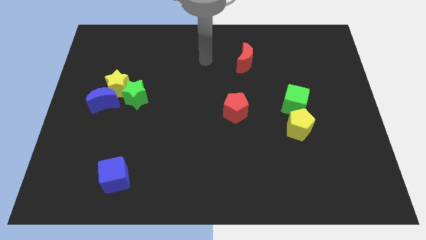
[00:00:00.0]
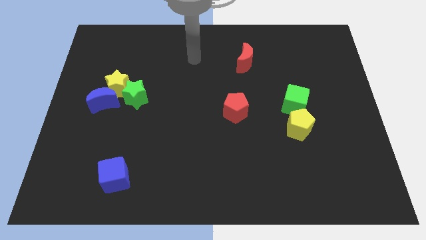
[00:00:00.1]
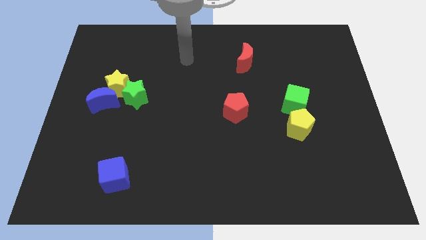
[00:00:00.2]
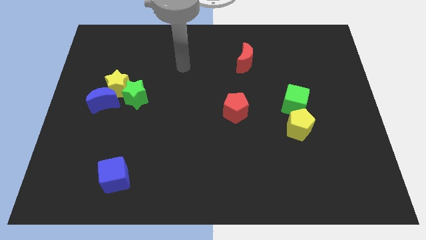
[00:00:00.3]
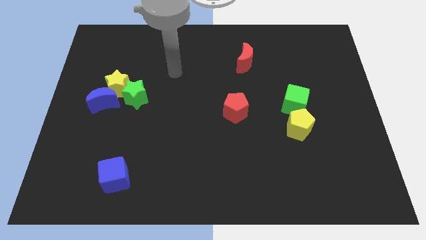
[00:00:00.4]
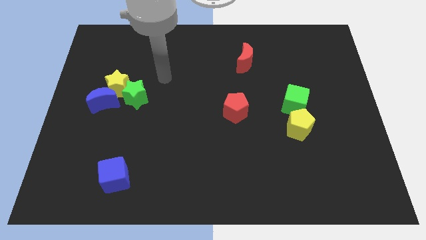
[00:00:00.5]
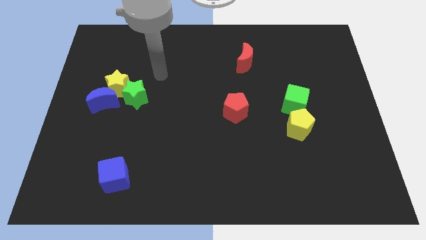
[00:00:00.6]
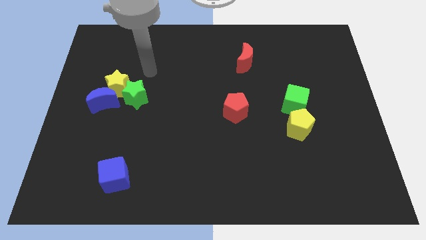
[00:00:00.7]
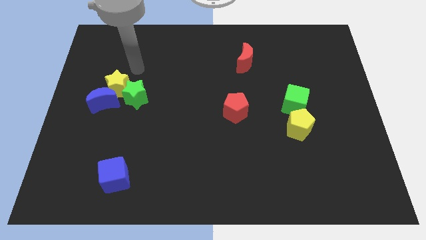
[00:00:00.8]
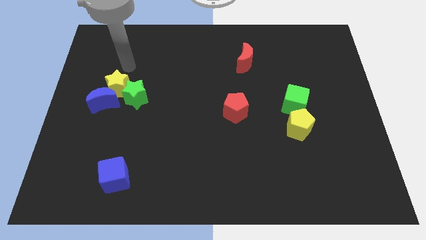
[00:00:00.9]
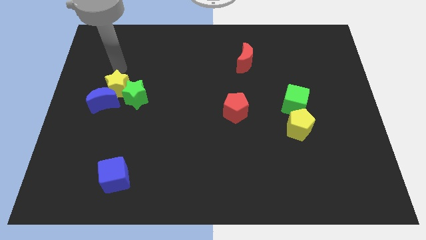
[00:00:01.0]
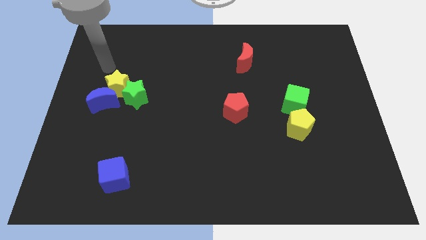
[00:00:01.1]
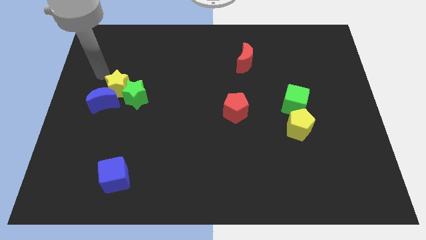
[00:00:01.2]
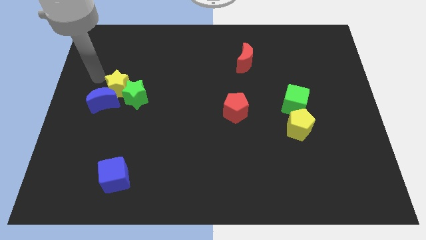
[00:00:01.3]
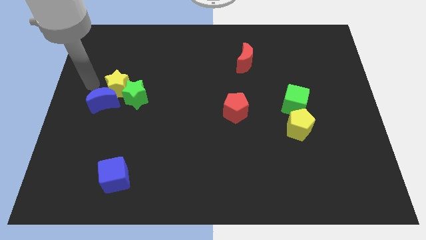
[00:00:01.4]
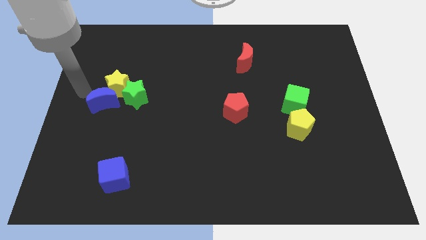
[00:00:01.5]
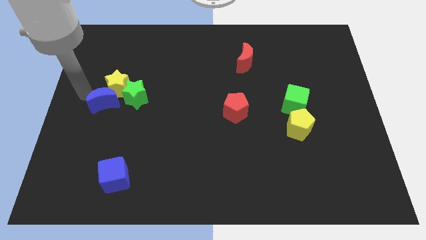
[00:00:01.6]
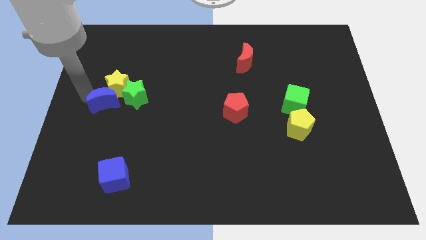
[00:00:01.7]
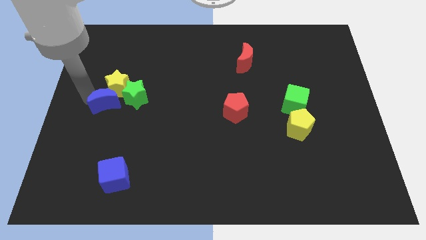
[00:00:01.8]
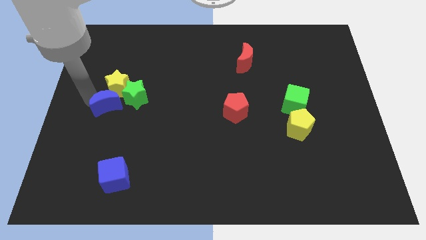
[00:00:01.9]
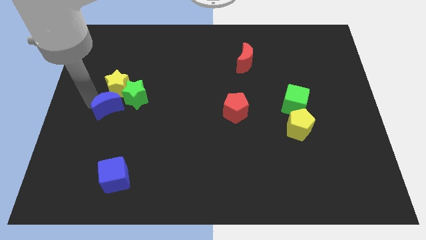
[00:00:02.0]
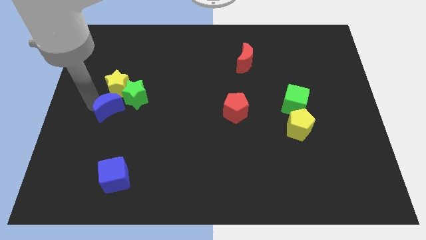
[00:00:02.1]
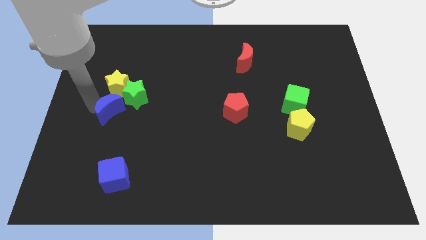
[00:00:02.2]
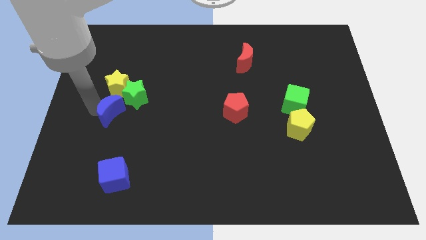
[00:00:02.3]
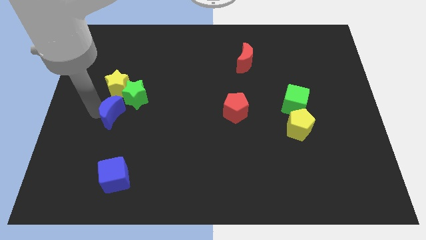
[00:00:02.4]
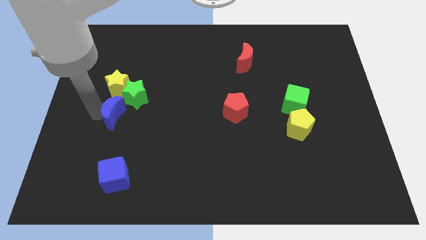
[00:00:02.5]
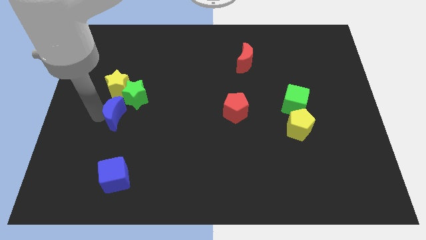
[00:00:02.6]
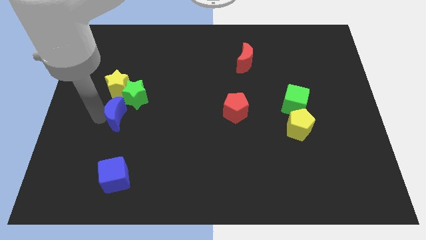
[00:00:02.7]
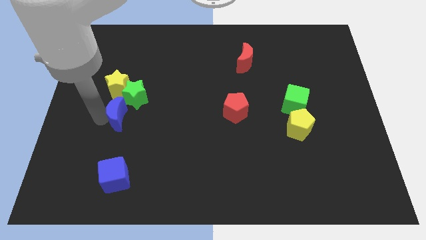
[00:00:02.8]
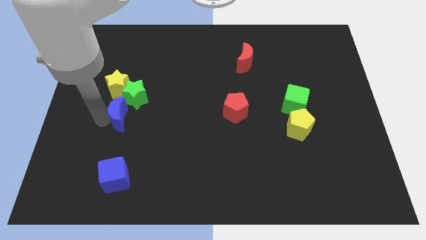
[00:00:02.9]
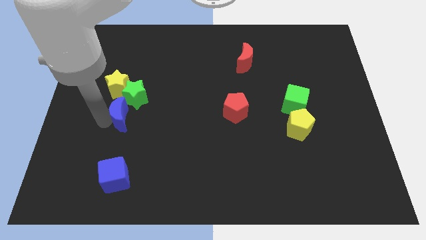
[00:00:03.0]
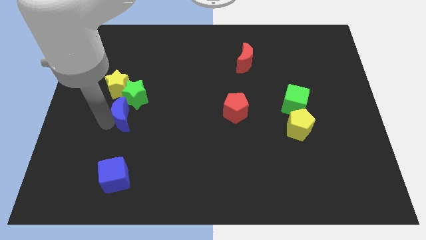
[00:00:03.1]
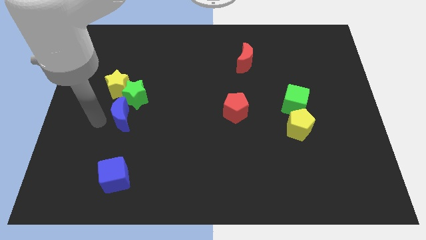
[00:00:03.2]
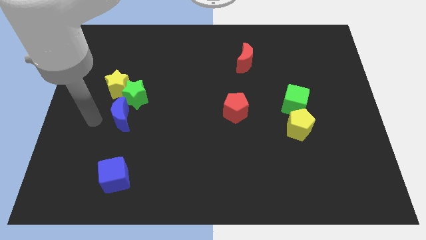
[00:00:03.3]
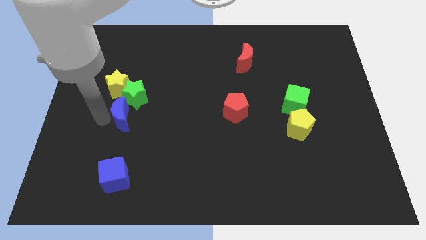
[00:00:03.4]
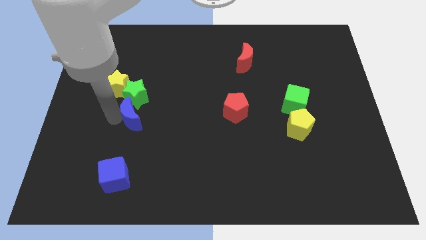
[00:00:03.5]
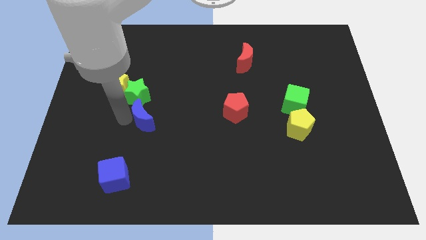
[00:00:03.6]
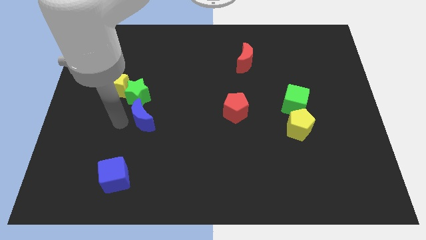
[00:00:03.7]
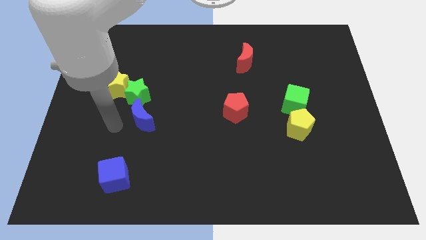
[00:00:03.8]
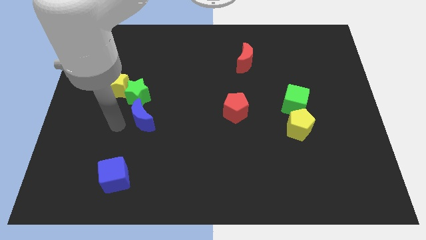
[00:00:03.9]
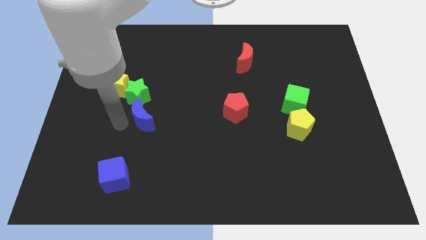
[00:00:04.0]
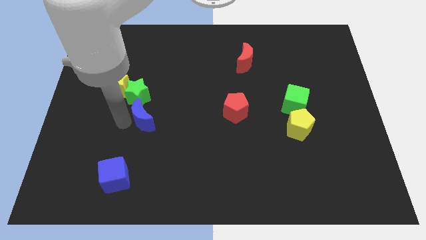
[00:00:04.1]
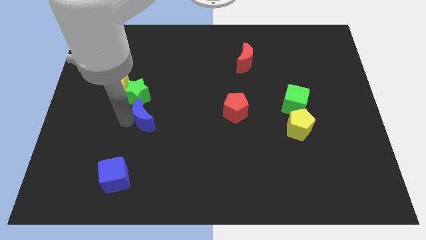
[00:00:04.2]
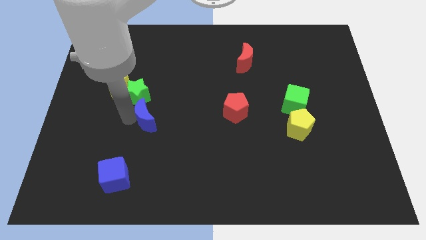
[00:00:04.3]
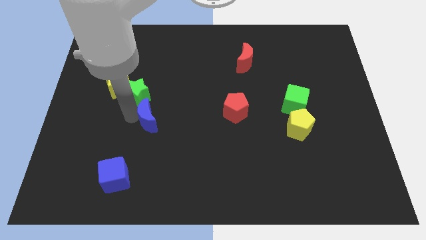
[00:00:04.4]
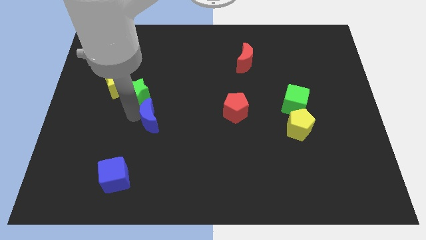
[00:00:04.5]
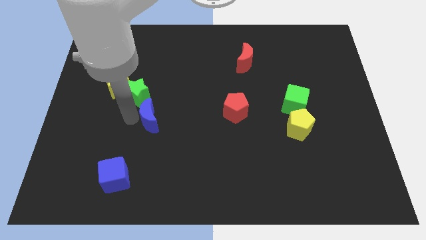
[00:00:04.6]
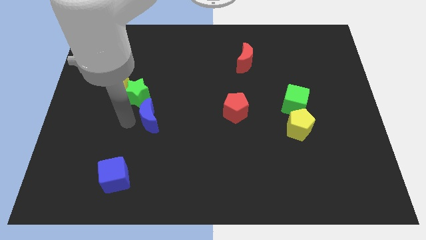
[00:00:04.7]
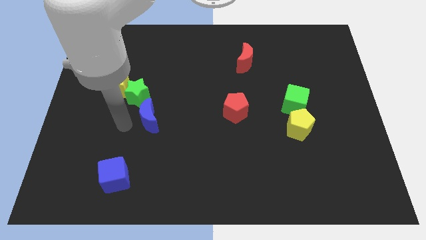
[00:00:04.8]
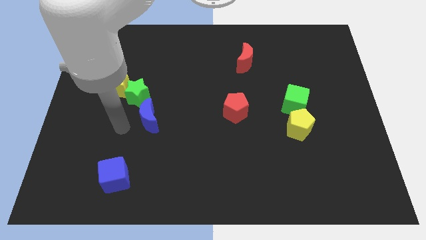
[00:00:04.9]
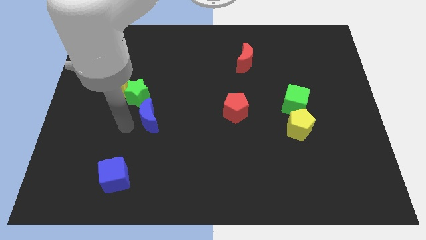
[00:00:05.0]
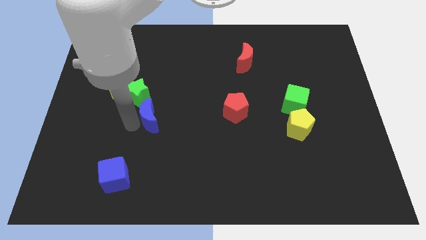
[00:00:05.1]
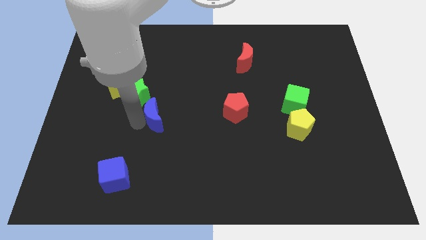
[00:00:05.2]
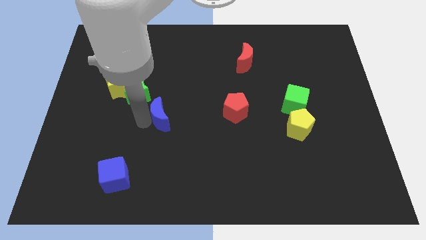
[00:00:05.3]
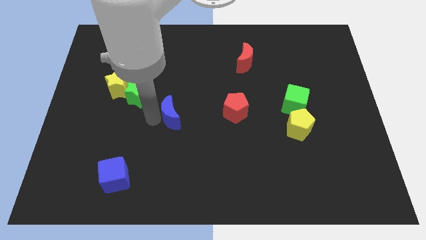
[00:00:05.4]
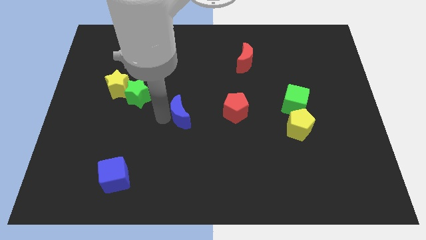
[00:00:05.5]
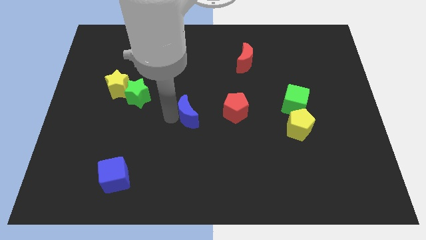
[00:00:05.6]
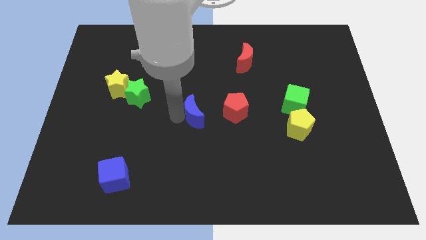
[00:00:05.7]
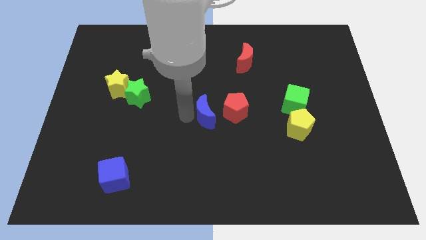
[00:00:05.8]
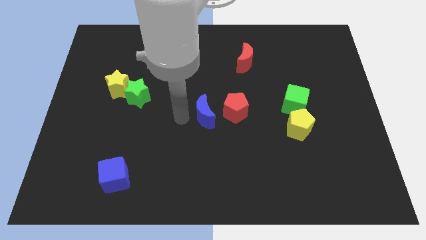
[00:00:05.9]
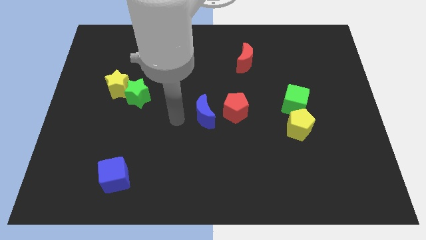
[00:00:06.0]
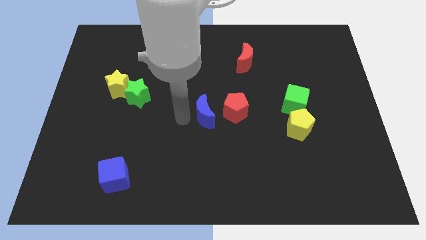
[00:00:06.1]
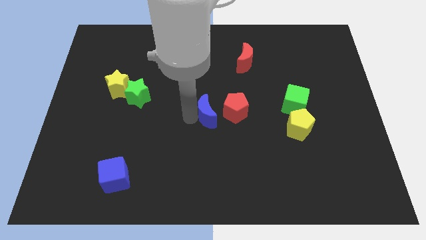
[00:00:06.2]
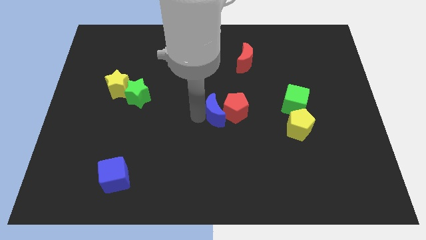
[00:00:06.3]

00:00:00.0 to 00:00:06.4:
slide the blue moon to the red pentagon

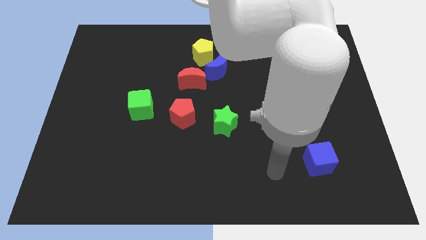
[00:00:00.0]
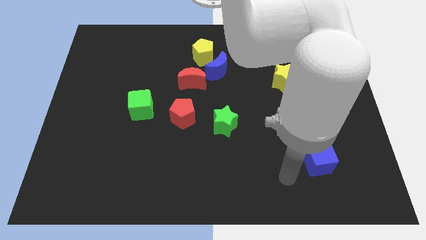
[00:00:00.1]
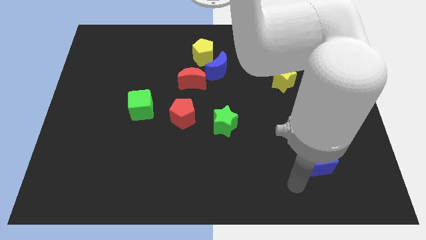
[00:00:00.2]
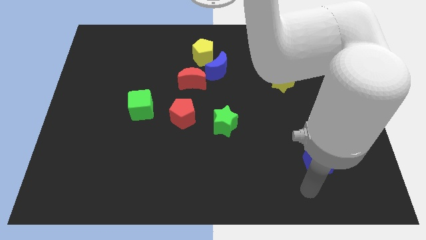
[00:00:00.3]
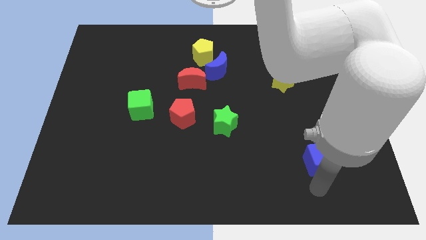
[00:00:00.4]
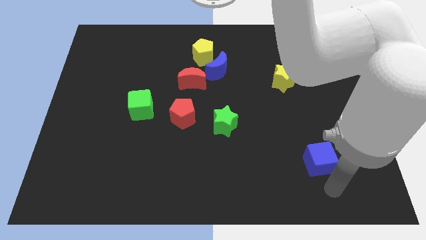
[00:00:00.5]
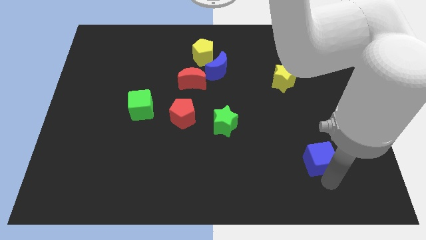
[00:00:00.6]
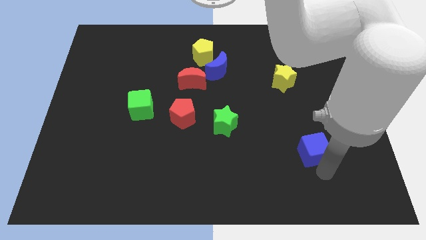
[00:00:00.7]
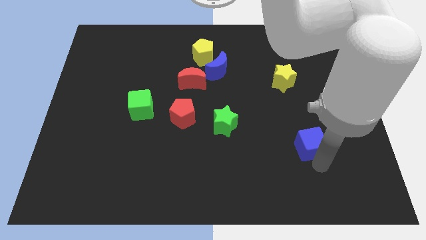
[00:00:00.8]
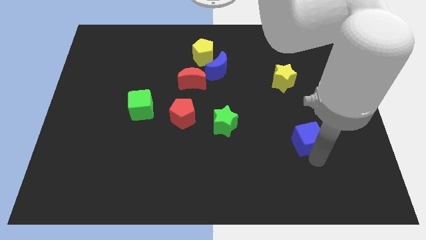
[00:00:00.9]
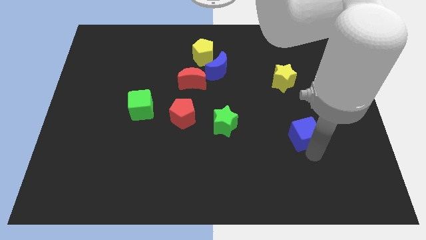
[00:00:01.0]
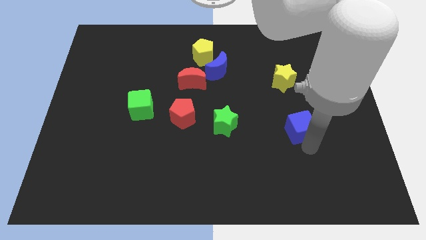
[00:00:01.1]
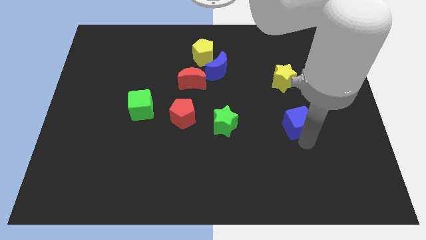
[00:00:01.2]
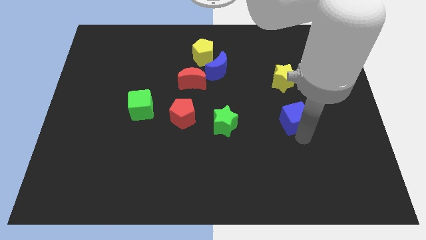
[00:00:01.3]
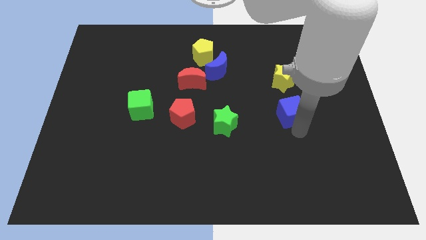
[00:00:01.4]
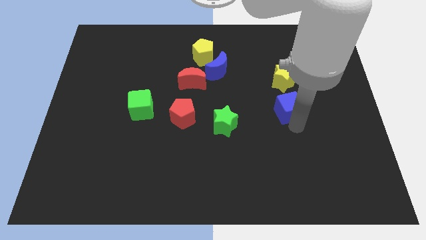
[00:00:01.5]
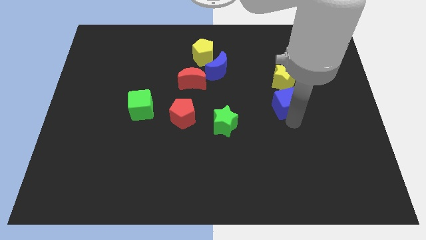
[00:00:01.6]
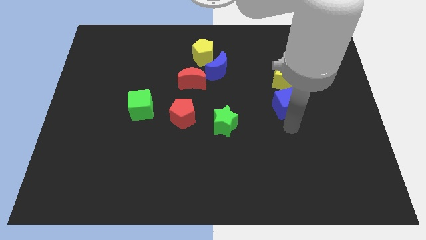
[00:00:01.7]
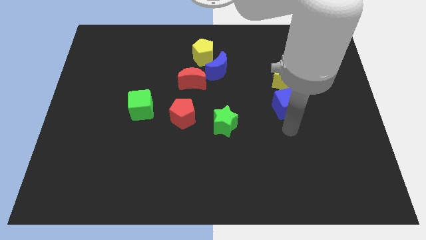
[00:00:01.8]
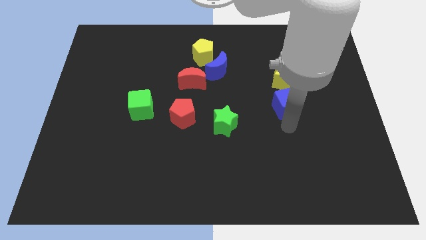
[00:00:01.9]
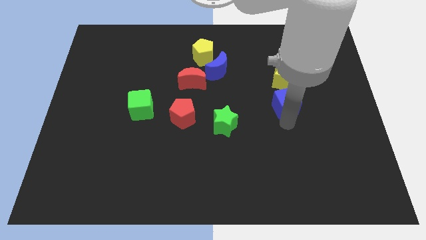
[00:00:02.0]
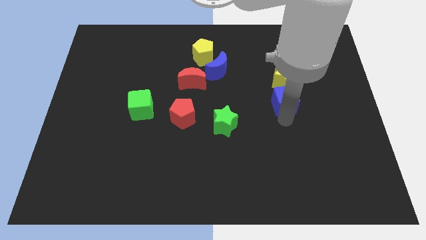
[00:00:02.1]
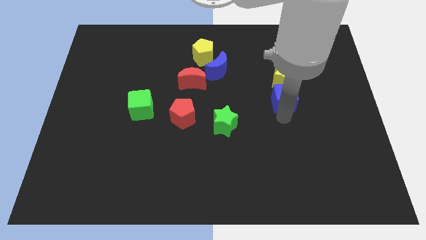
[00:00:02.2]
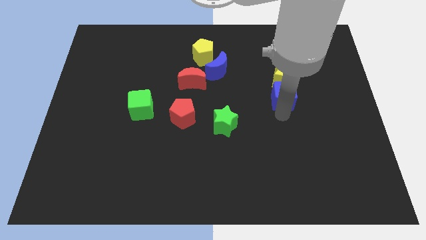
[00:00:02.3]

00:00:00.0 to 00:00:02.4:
move the blue cube close to the yellow star

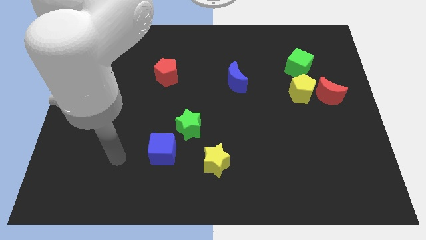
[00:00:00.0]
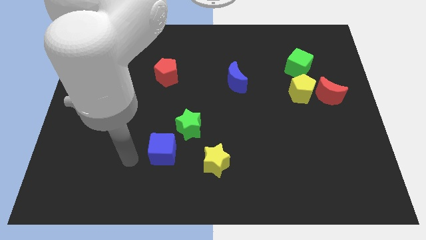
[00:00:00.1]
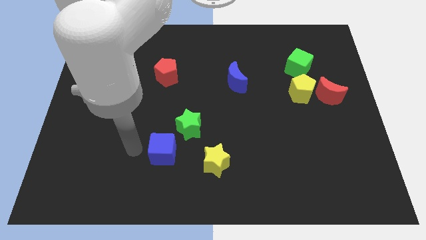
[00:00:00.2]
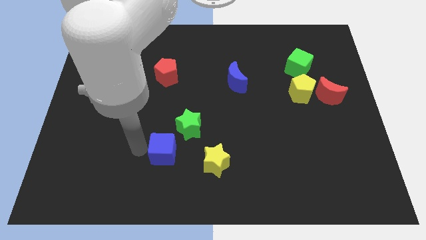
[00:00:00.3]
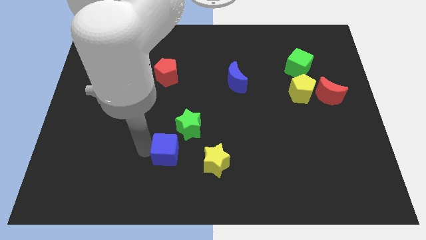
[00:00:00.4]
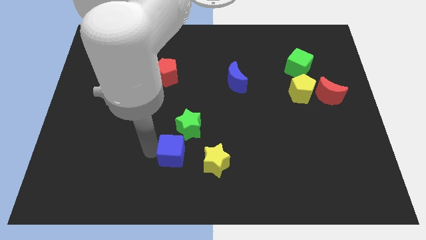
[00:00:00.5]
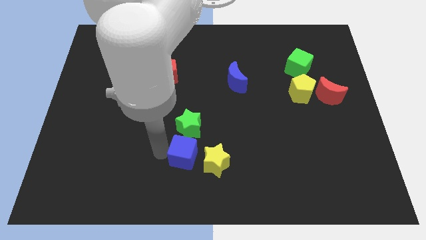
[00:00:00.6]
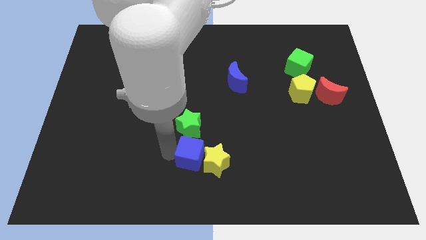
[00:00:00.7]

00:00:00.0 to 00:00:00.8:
move the blue cube next to the yellow star
